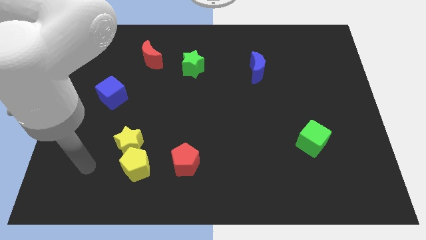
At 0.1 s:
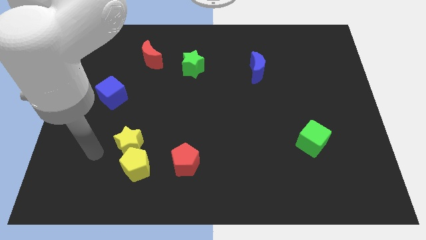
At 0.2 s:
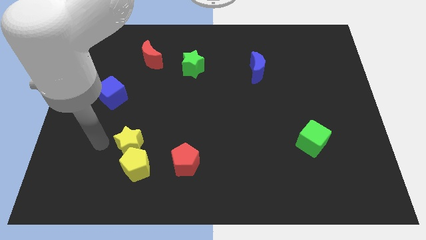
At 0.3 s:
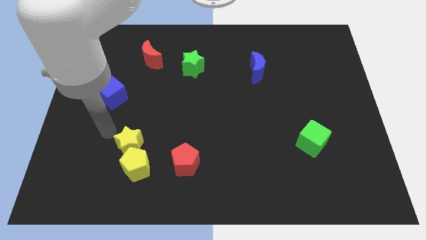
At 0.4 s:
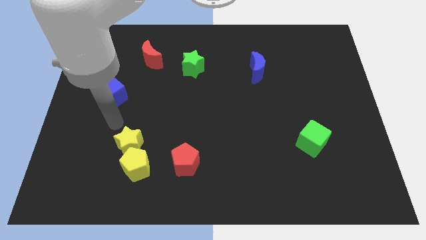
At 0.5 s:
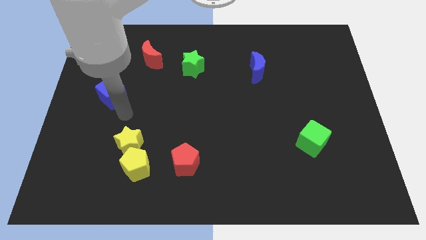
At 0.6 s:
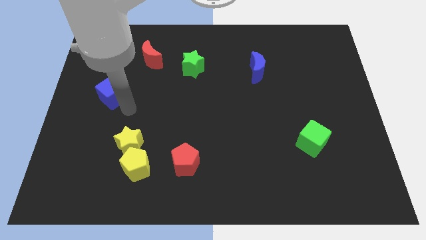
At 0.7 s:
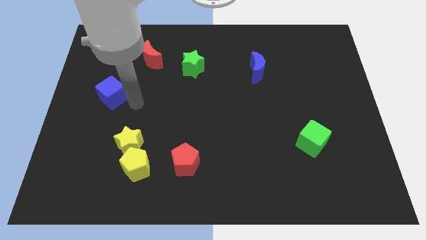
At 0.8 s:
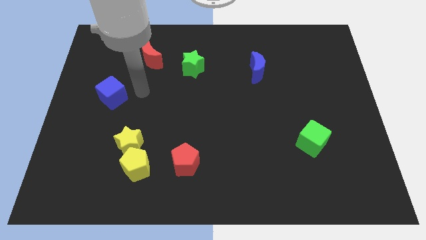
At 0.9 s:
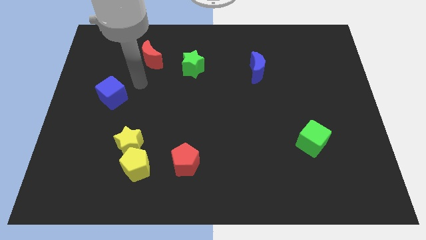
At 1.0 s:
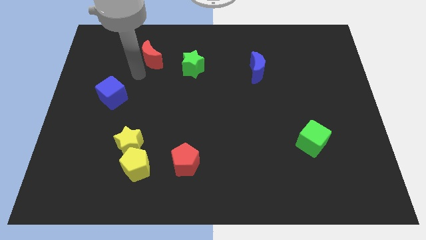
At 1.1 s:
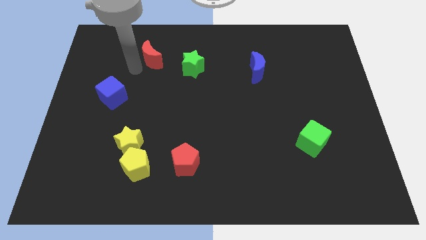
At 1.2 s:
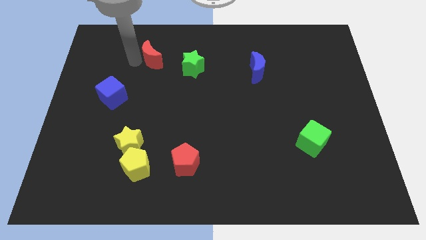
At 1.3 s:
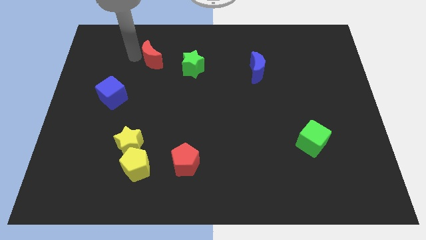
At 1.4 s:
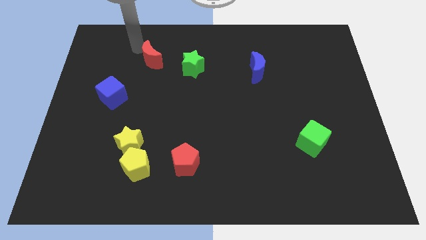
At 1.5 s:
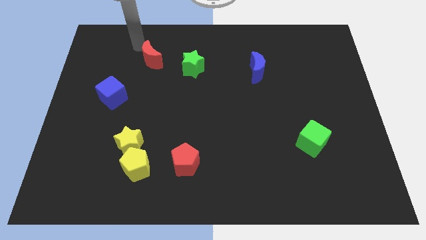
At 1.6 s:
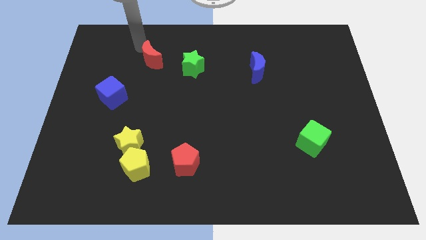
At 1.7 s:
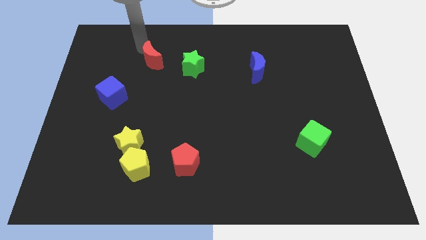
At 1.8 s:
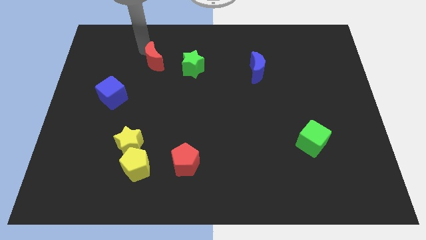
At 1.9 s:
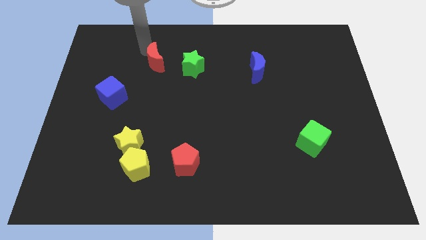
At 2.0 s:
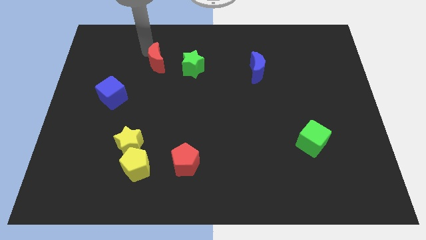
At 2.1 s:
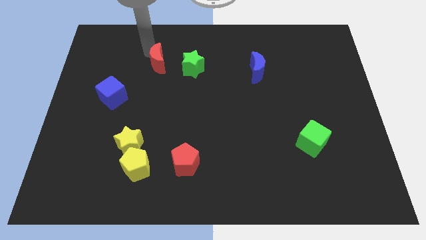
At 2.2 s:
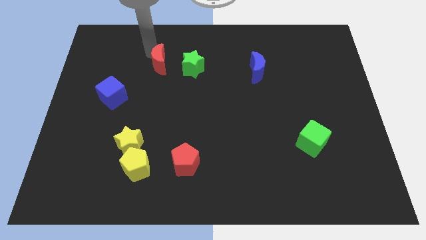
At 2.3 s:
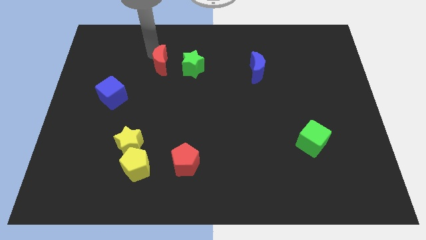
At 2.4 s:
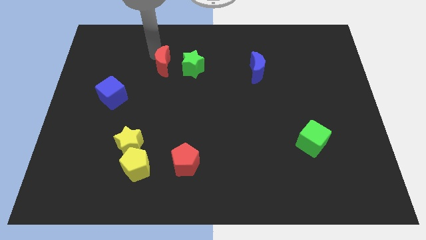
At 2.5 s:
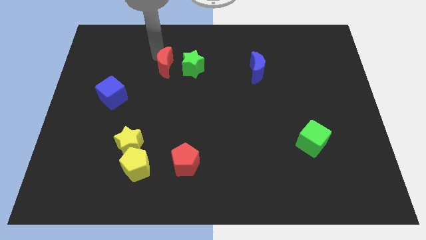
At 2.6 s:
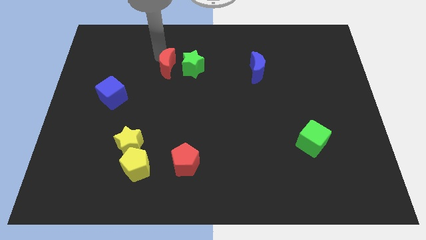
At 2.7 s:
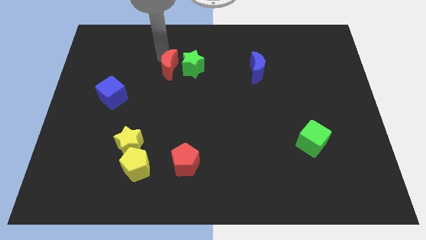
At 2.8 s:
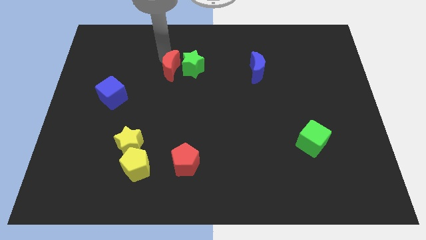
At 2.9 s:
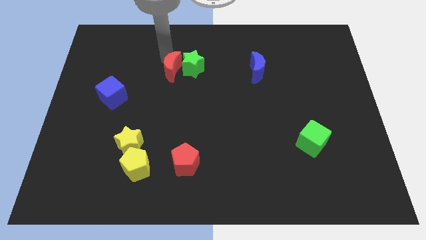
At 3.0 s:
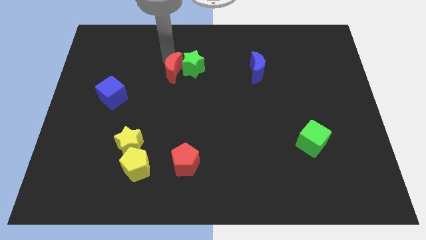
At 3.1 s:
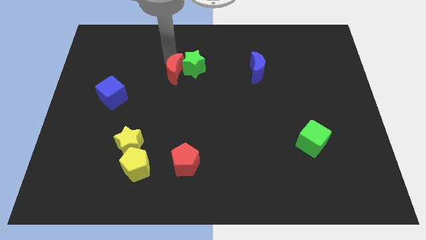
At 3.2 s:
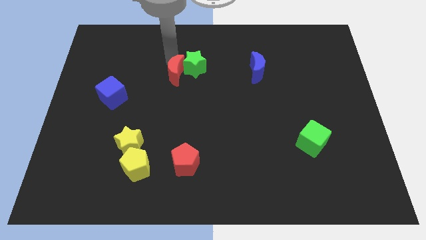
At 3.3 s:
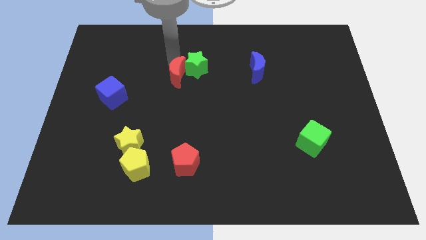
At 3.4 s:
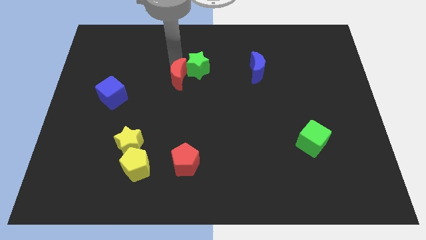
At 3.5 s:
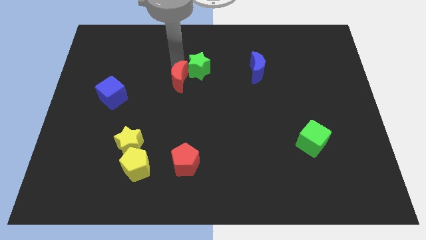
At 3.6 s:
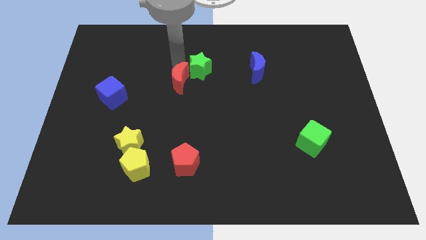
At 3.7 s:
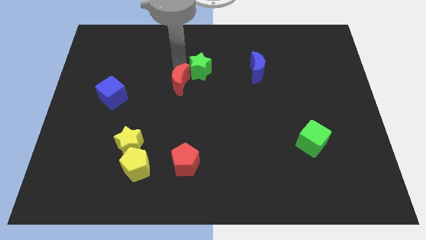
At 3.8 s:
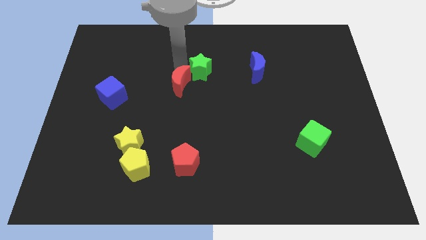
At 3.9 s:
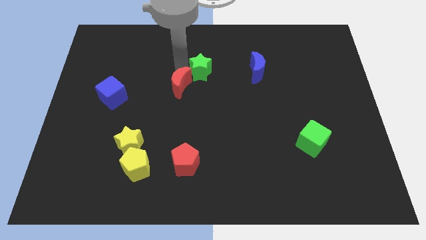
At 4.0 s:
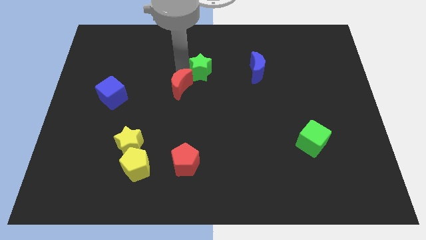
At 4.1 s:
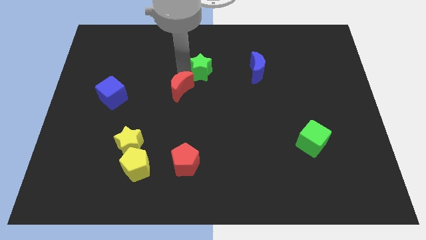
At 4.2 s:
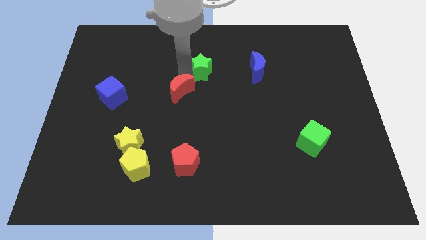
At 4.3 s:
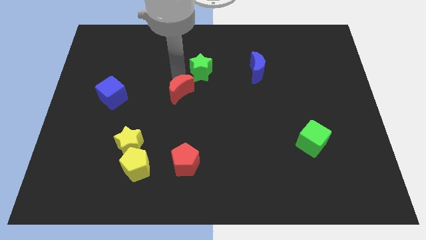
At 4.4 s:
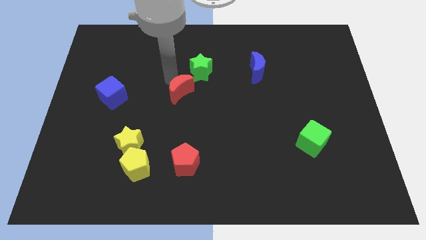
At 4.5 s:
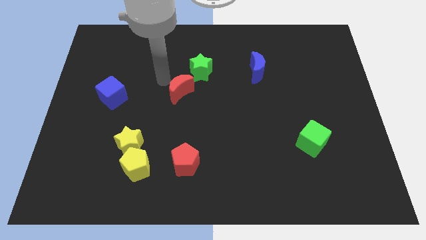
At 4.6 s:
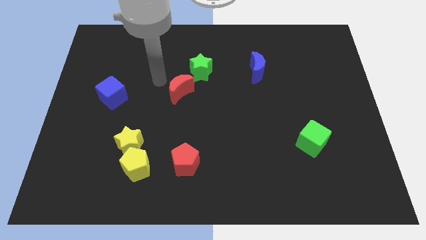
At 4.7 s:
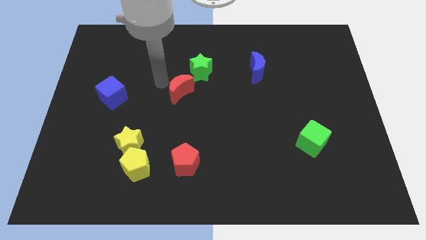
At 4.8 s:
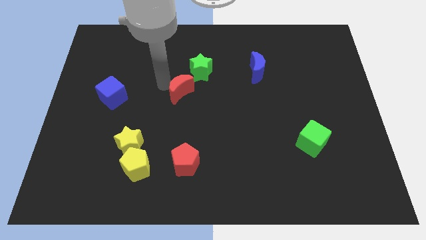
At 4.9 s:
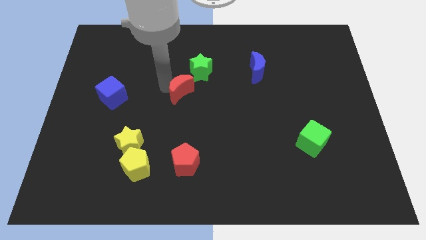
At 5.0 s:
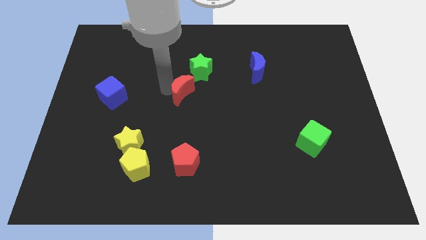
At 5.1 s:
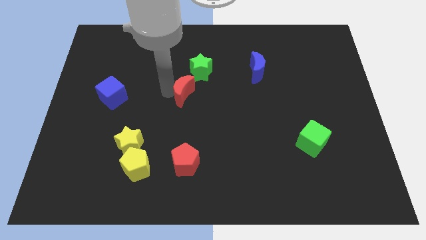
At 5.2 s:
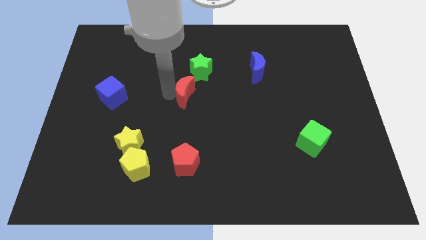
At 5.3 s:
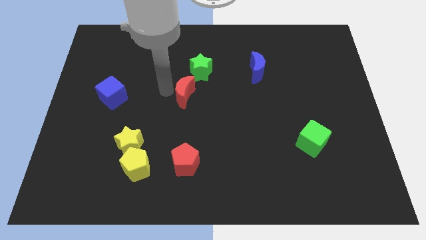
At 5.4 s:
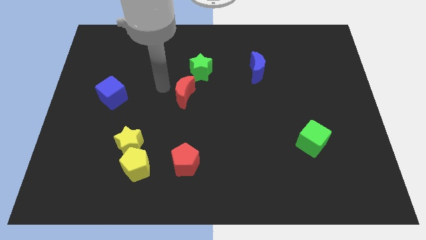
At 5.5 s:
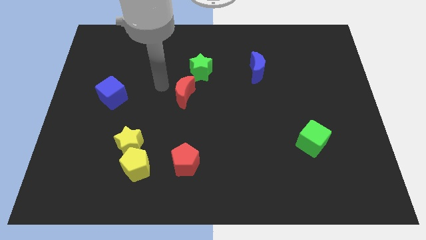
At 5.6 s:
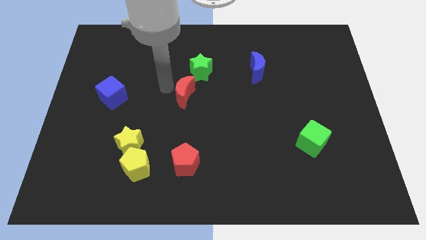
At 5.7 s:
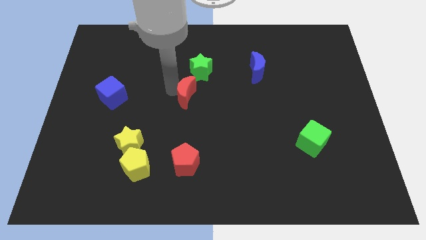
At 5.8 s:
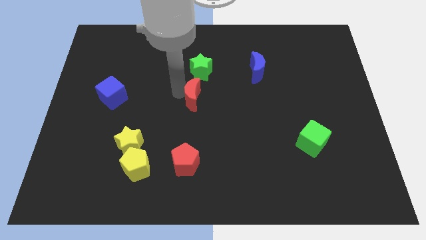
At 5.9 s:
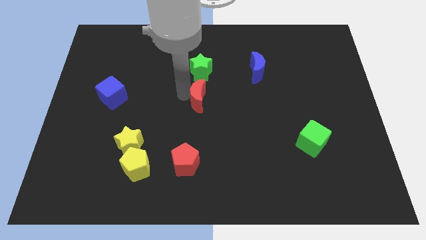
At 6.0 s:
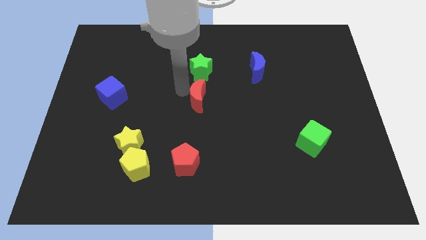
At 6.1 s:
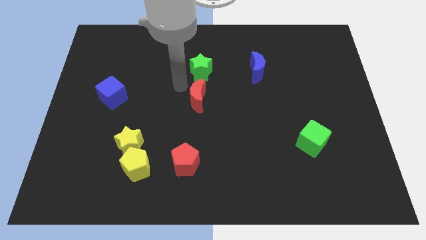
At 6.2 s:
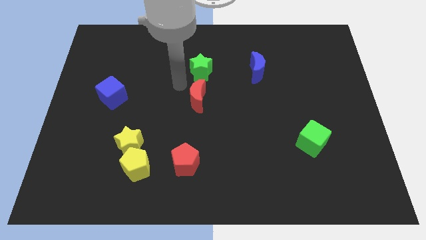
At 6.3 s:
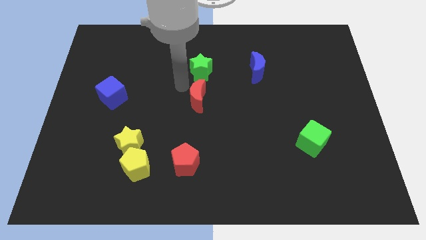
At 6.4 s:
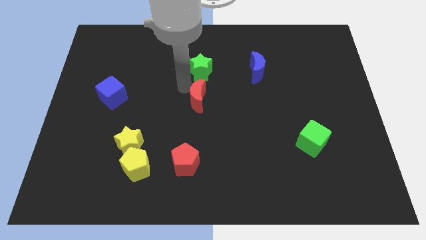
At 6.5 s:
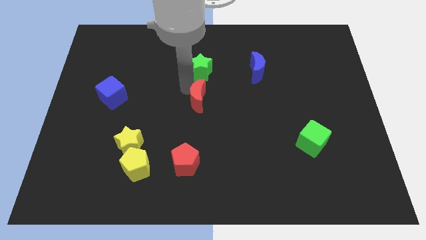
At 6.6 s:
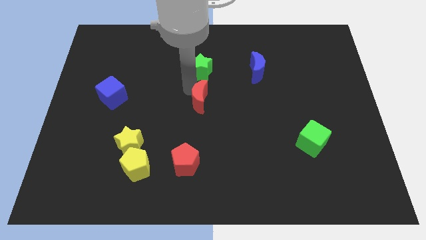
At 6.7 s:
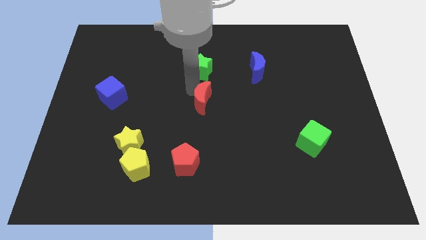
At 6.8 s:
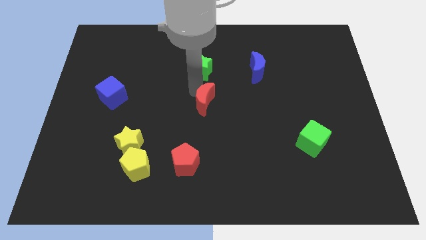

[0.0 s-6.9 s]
slide the red moon diagonally downwards and to the right

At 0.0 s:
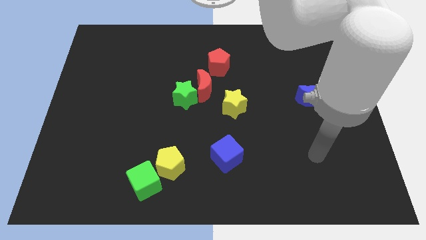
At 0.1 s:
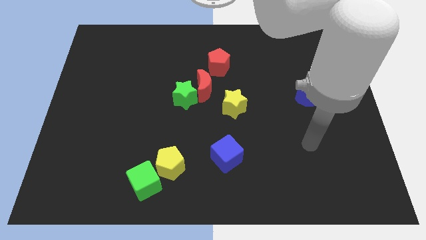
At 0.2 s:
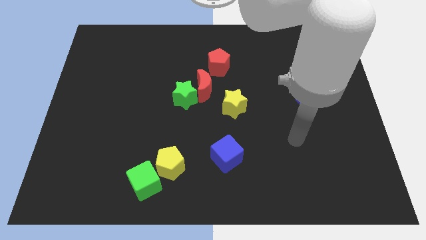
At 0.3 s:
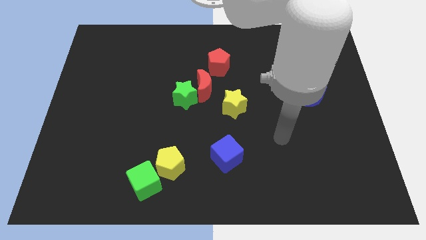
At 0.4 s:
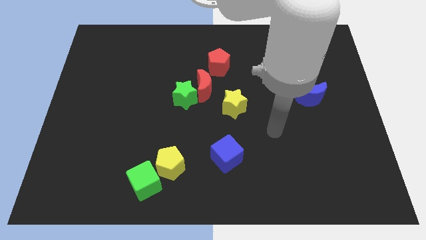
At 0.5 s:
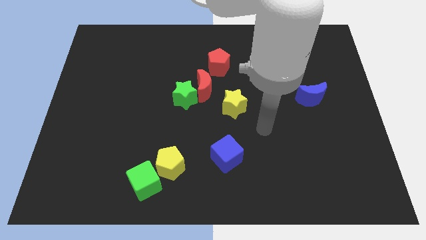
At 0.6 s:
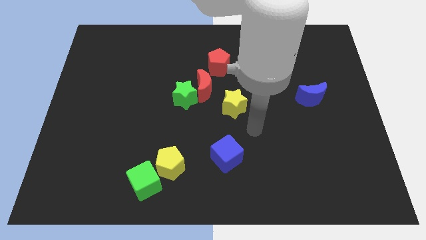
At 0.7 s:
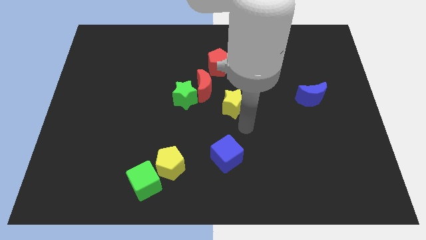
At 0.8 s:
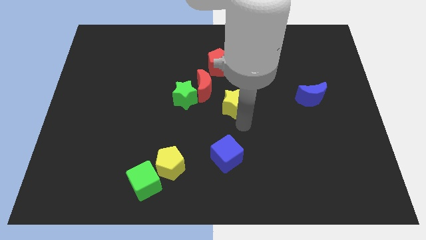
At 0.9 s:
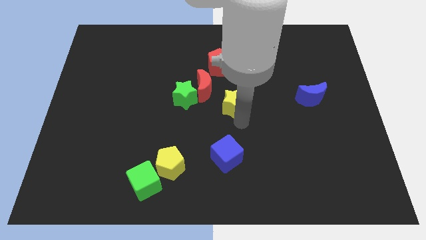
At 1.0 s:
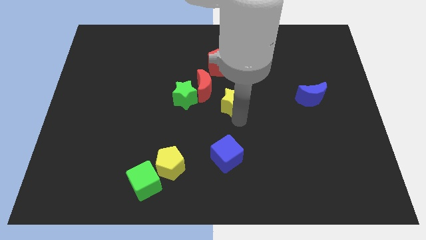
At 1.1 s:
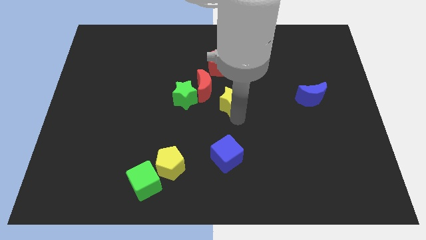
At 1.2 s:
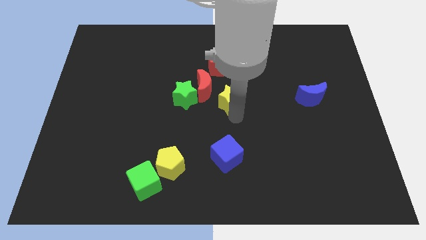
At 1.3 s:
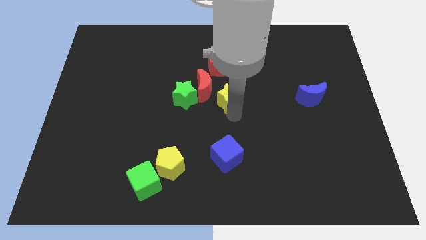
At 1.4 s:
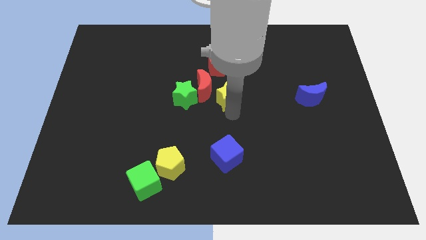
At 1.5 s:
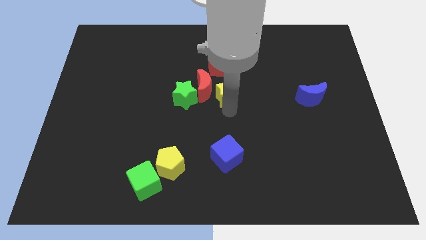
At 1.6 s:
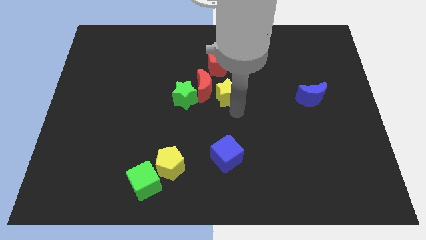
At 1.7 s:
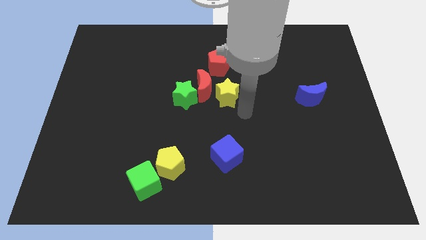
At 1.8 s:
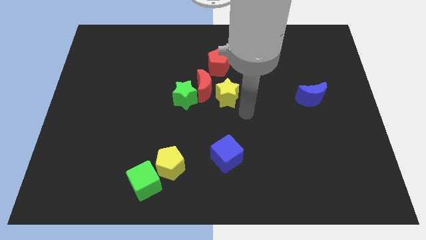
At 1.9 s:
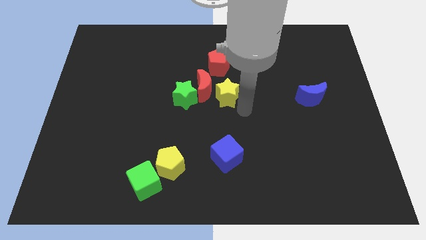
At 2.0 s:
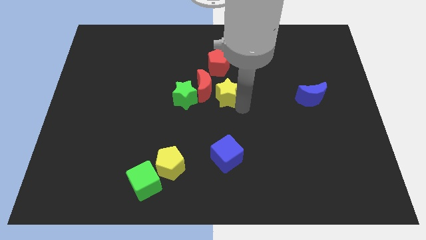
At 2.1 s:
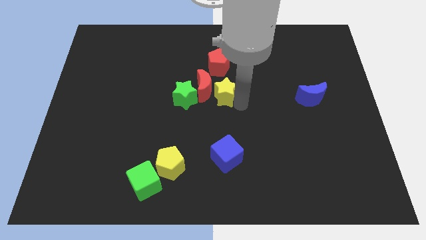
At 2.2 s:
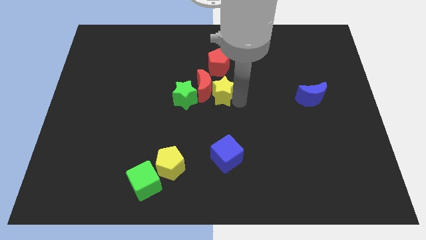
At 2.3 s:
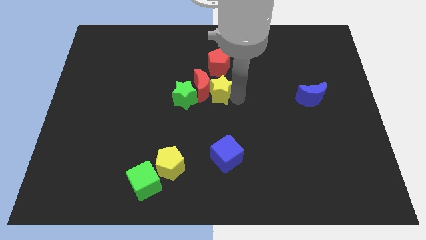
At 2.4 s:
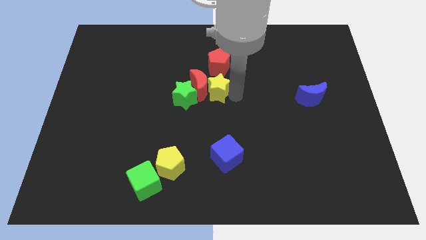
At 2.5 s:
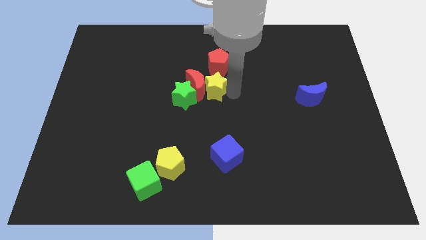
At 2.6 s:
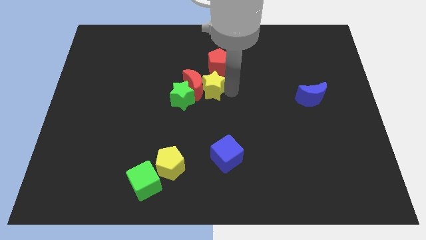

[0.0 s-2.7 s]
slide the yellow star slightly upwards and left diagonally
